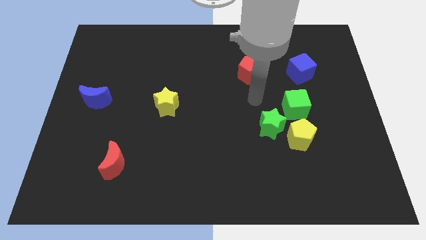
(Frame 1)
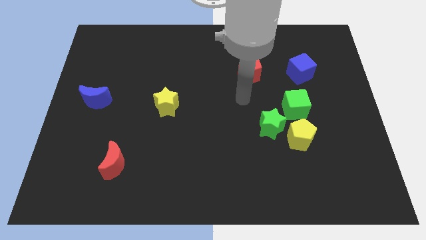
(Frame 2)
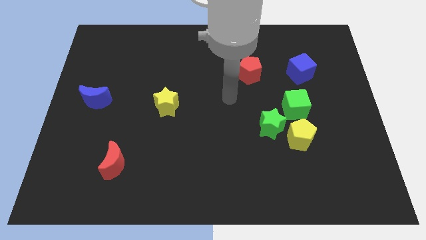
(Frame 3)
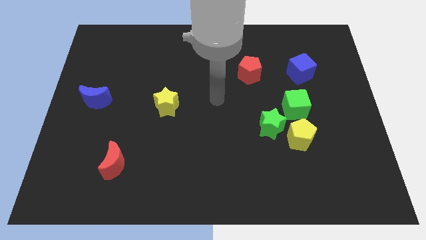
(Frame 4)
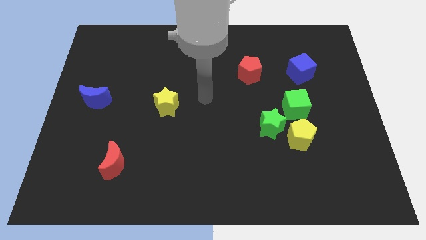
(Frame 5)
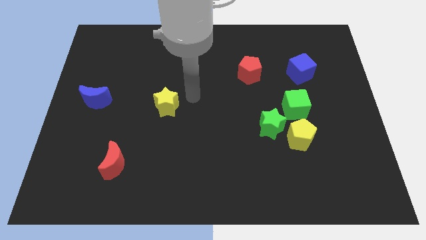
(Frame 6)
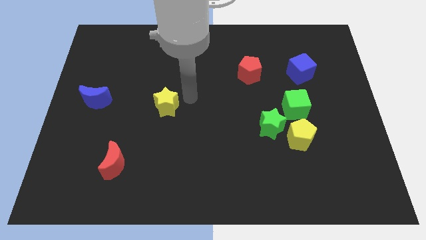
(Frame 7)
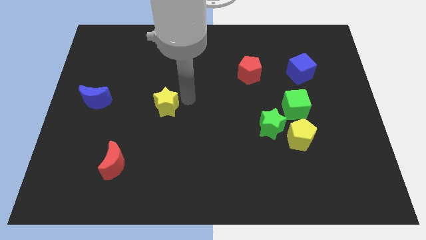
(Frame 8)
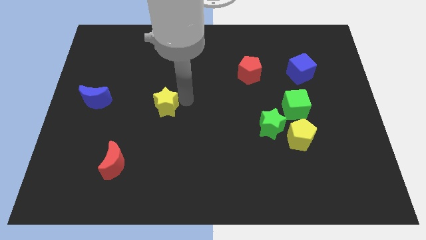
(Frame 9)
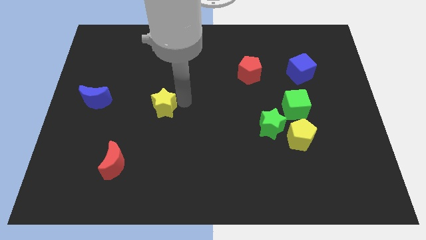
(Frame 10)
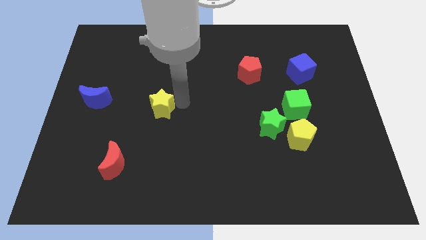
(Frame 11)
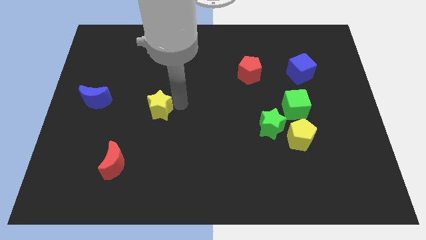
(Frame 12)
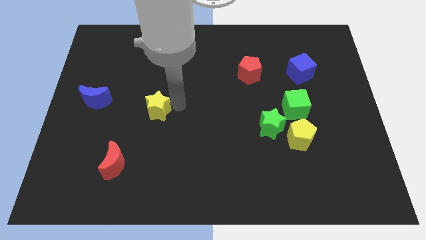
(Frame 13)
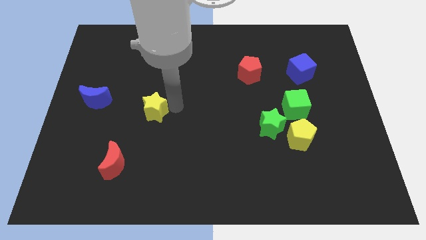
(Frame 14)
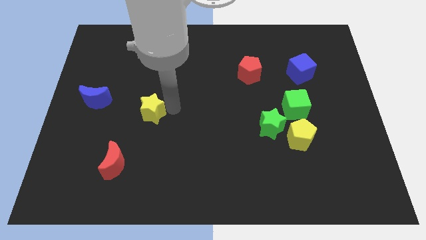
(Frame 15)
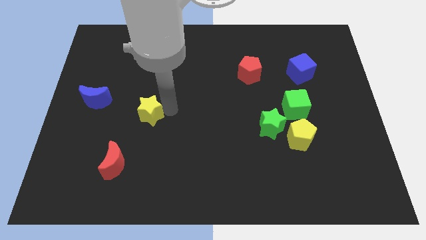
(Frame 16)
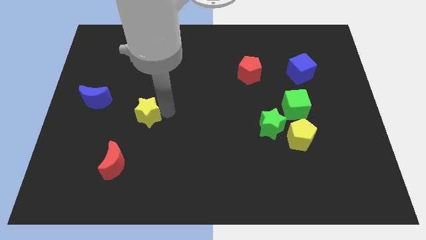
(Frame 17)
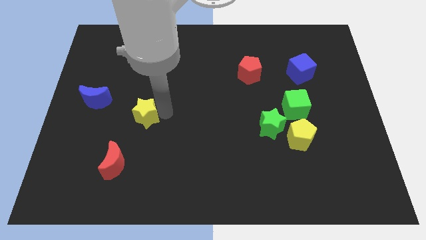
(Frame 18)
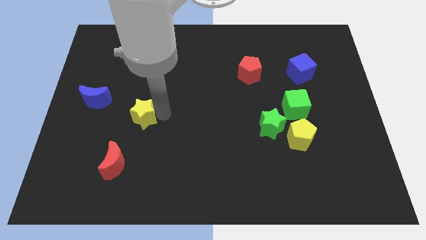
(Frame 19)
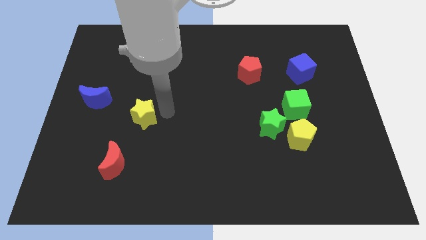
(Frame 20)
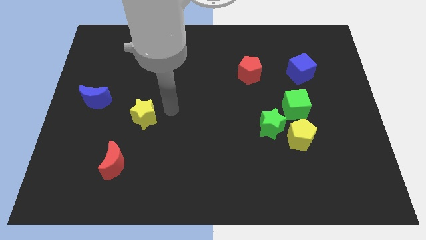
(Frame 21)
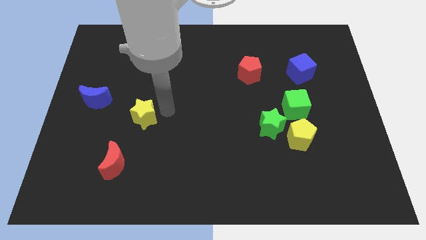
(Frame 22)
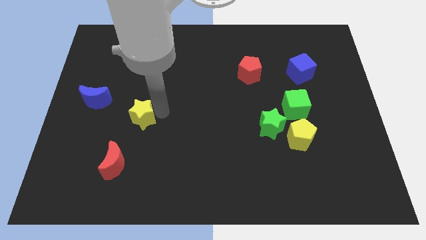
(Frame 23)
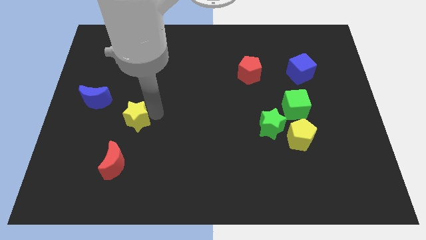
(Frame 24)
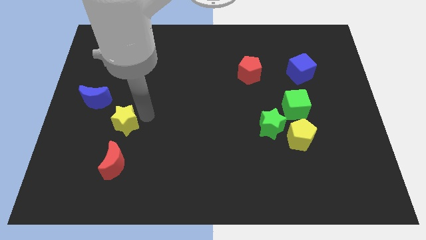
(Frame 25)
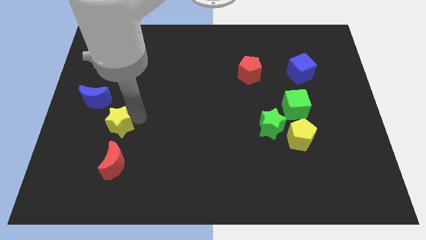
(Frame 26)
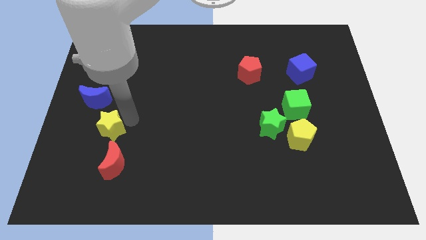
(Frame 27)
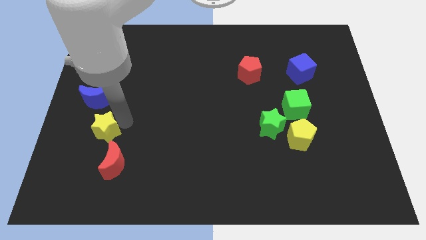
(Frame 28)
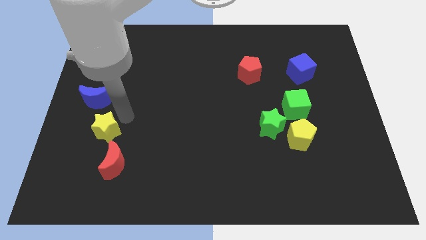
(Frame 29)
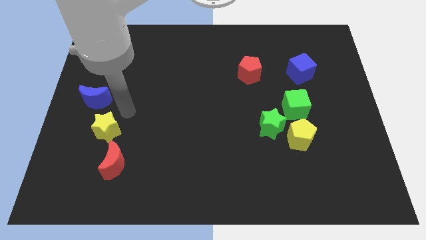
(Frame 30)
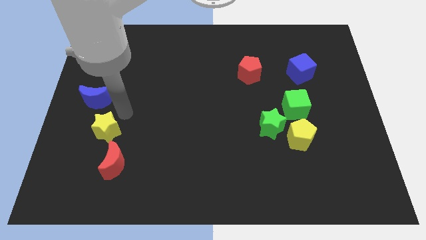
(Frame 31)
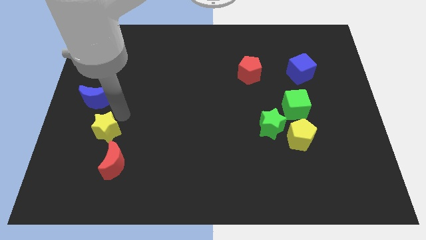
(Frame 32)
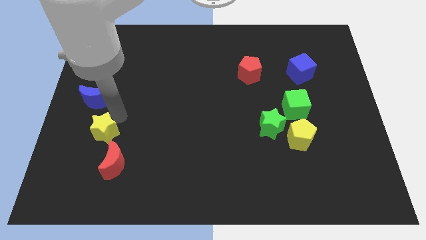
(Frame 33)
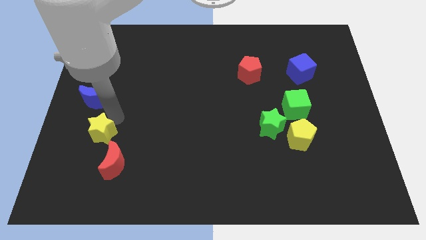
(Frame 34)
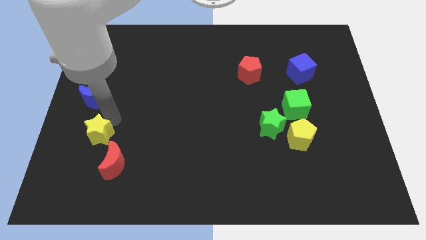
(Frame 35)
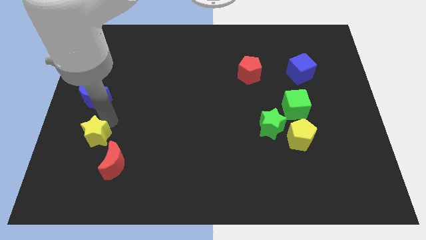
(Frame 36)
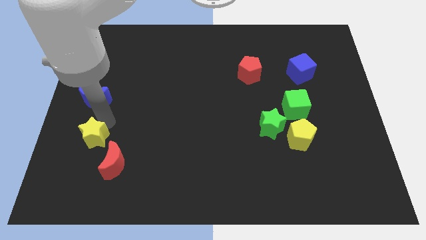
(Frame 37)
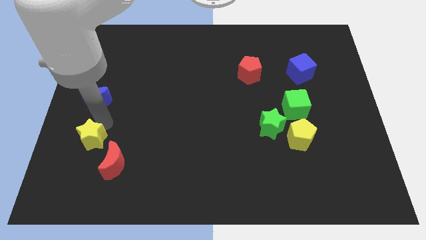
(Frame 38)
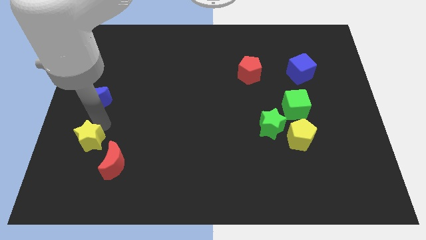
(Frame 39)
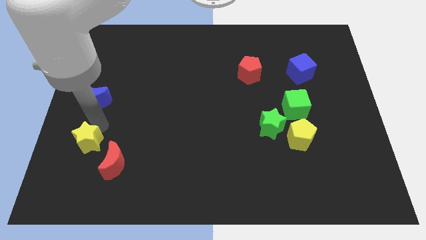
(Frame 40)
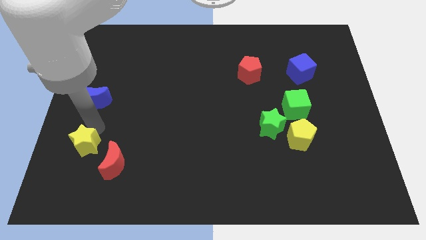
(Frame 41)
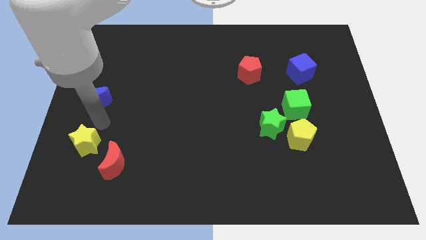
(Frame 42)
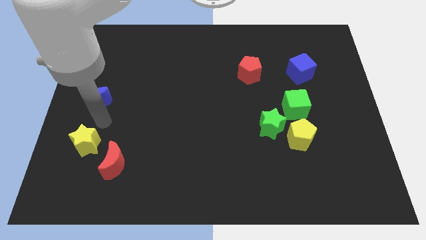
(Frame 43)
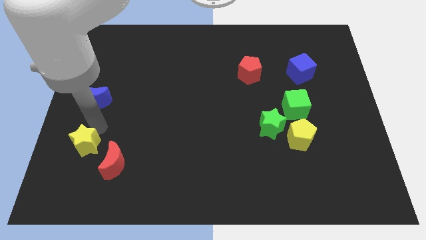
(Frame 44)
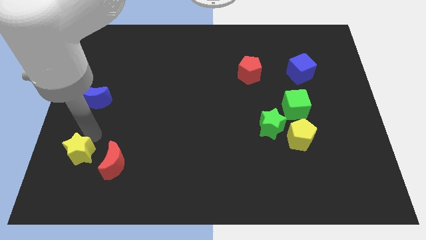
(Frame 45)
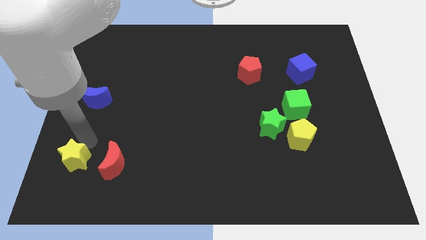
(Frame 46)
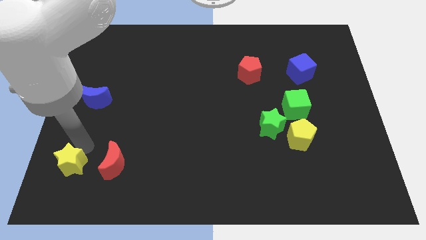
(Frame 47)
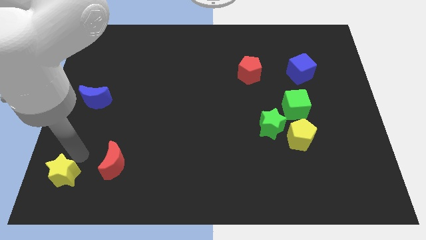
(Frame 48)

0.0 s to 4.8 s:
push the yellow star to the bottom left

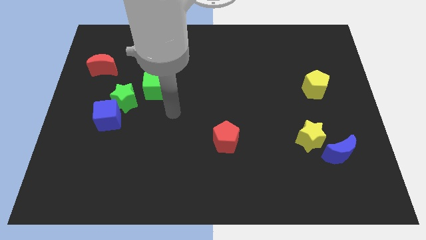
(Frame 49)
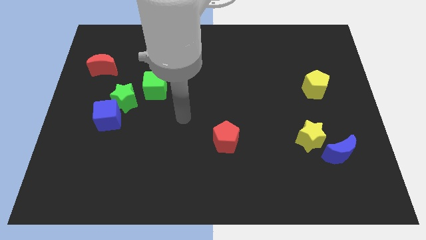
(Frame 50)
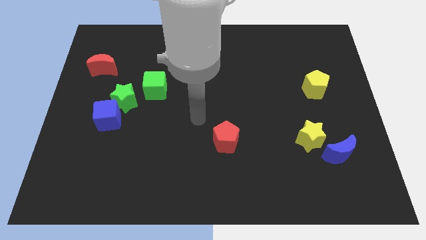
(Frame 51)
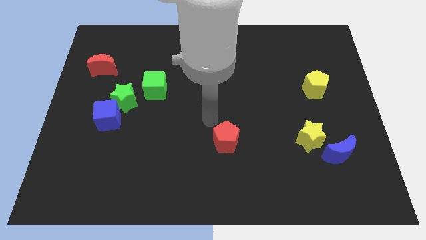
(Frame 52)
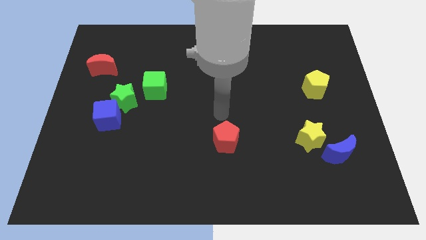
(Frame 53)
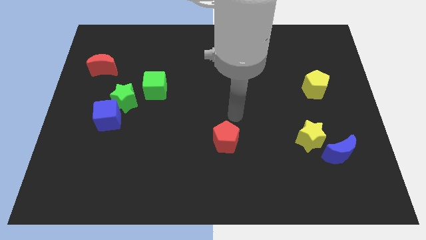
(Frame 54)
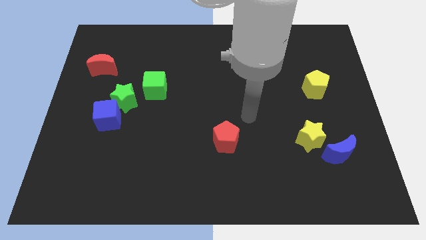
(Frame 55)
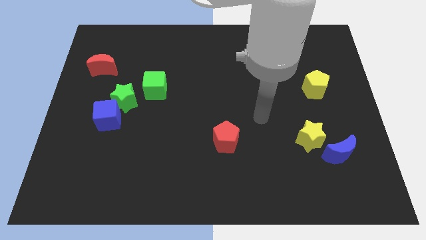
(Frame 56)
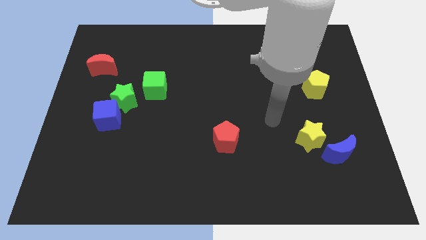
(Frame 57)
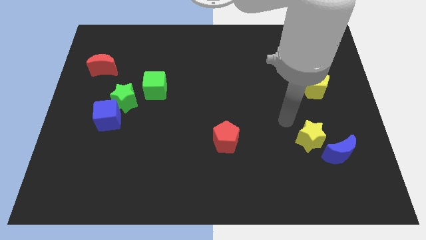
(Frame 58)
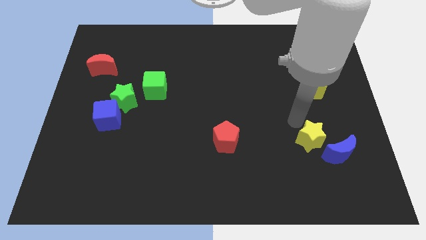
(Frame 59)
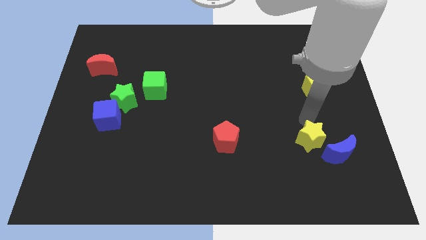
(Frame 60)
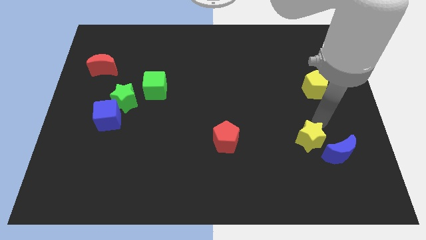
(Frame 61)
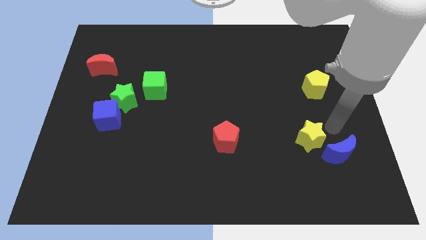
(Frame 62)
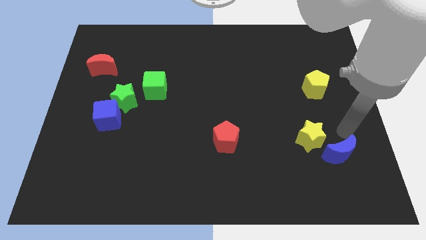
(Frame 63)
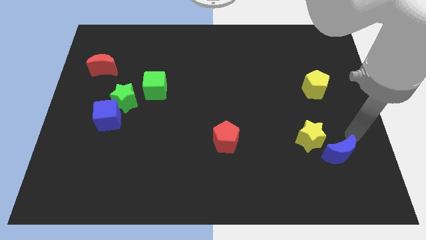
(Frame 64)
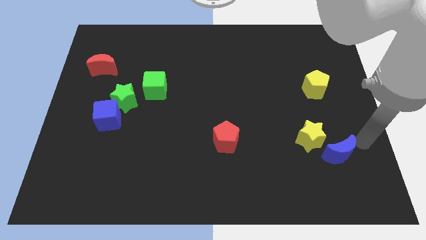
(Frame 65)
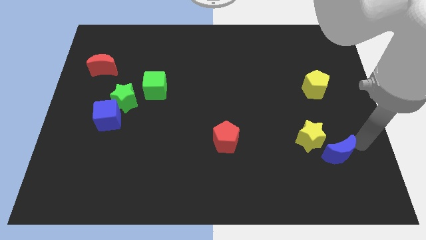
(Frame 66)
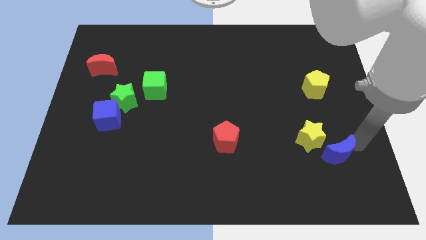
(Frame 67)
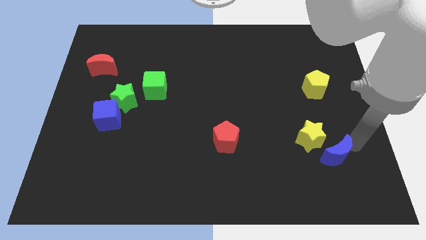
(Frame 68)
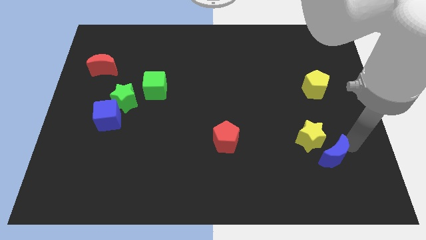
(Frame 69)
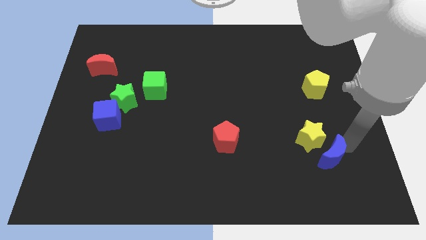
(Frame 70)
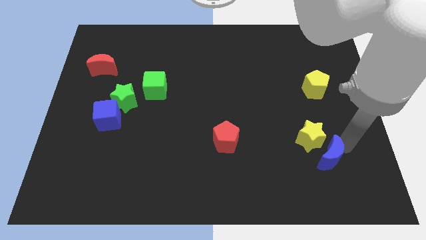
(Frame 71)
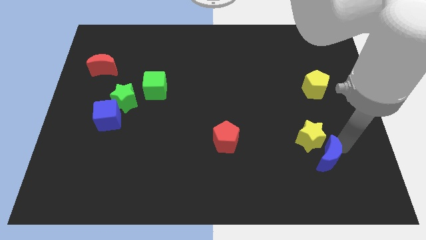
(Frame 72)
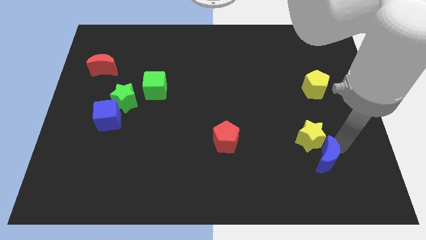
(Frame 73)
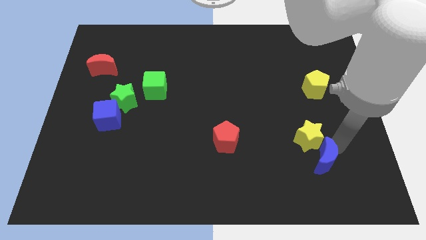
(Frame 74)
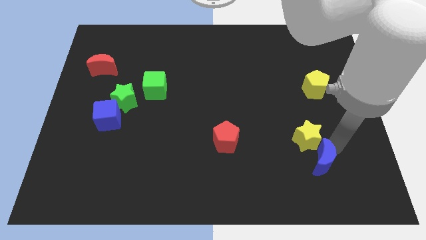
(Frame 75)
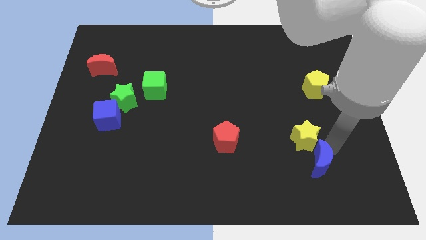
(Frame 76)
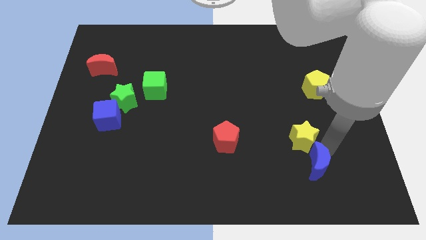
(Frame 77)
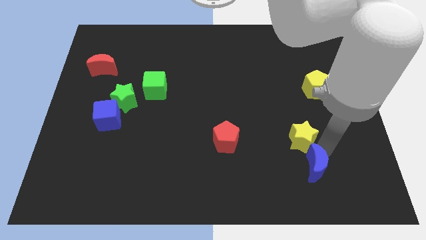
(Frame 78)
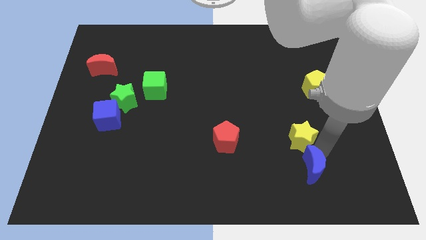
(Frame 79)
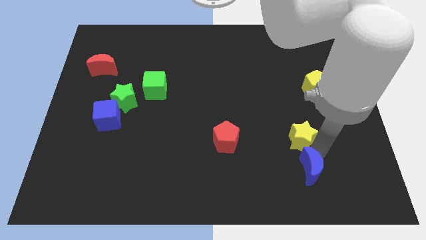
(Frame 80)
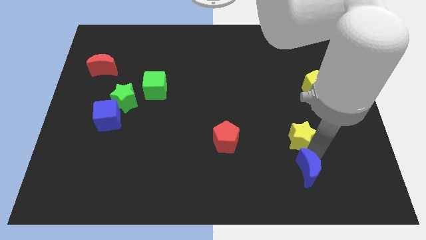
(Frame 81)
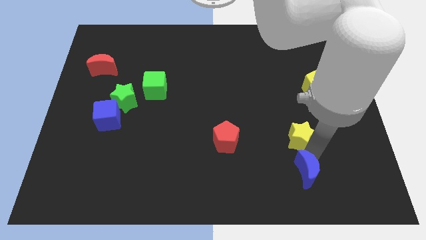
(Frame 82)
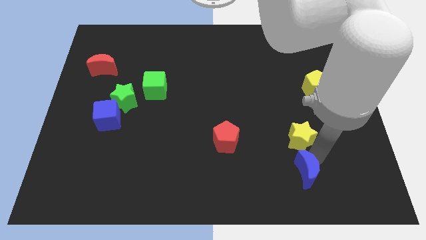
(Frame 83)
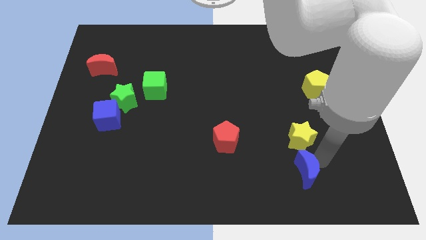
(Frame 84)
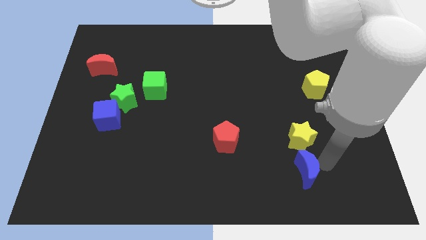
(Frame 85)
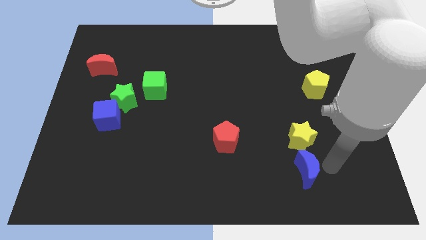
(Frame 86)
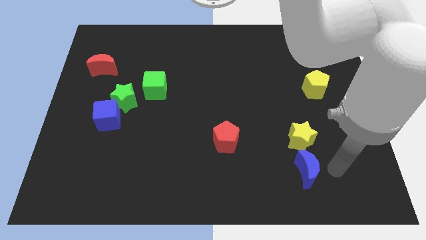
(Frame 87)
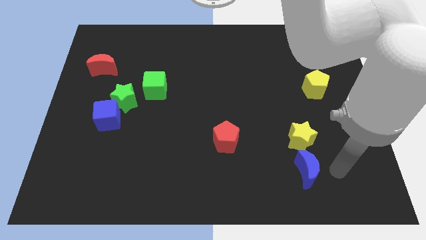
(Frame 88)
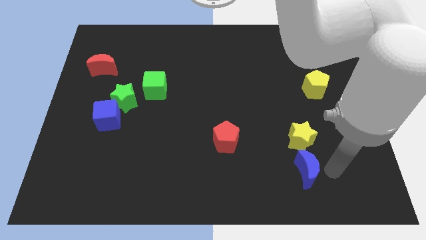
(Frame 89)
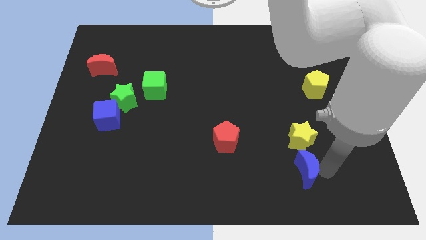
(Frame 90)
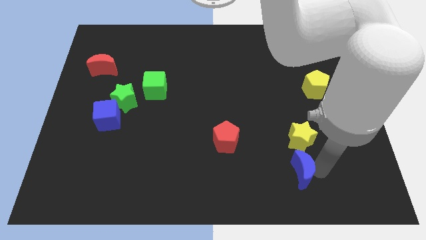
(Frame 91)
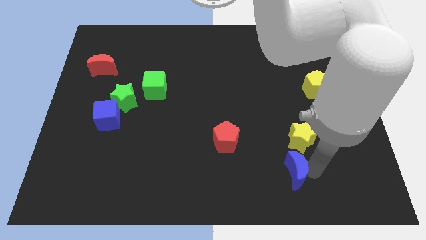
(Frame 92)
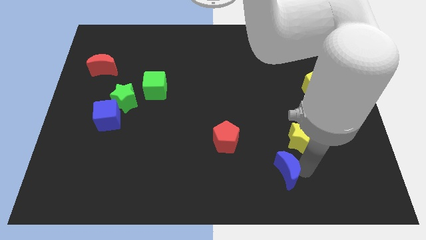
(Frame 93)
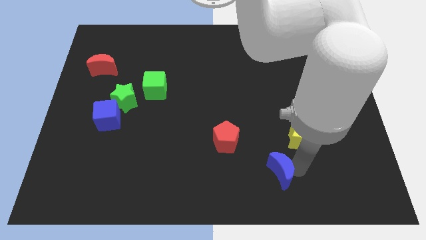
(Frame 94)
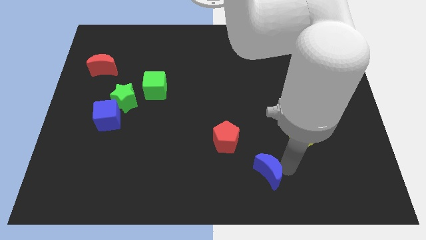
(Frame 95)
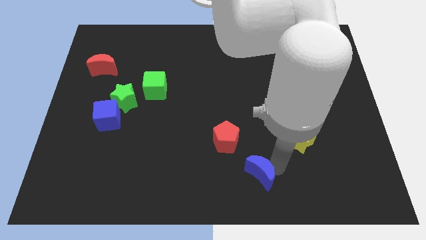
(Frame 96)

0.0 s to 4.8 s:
push the blue moon to the bottom
